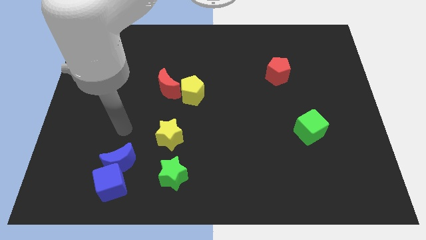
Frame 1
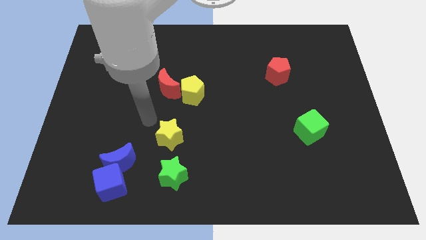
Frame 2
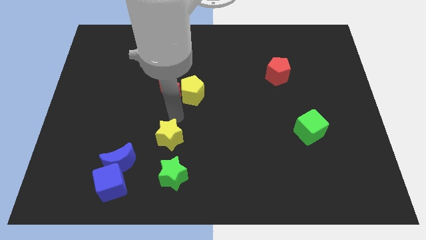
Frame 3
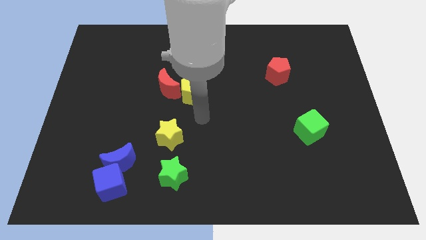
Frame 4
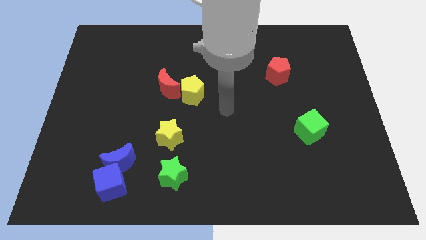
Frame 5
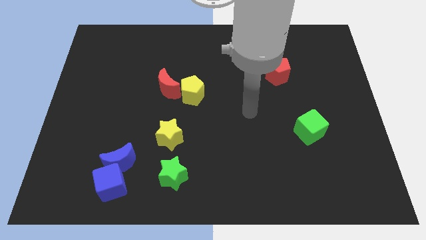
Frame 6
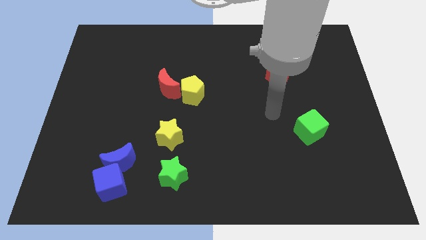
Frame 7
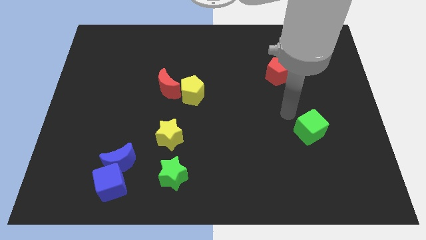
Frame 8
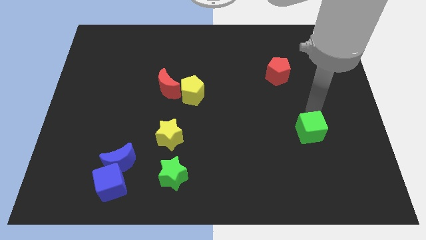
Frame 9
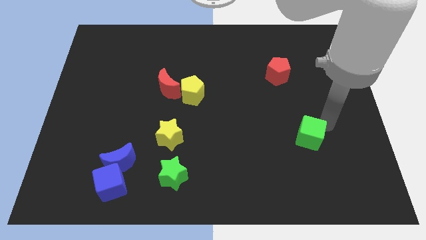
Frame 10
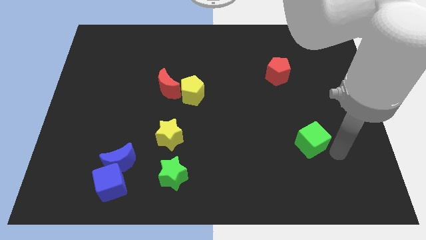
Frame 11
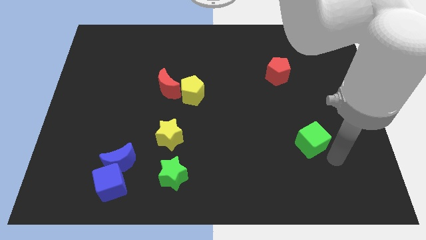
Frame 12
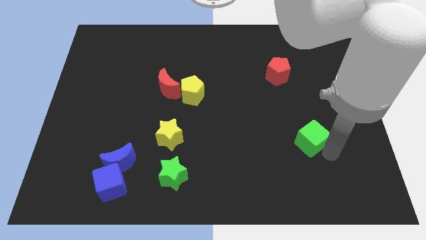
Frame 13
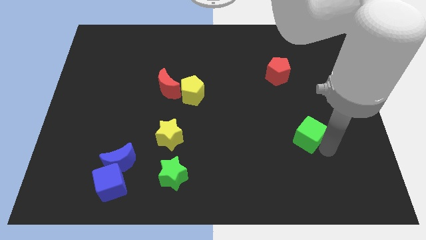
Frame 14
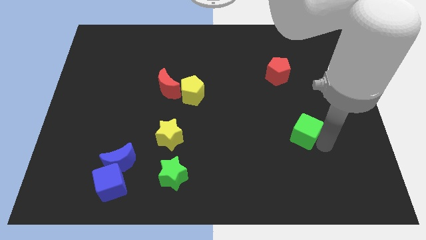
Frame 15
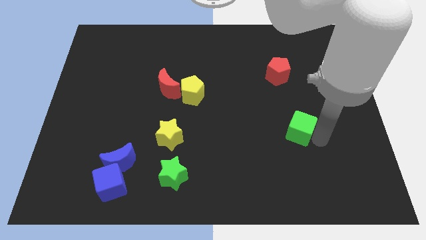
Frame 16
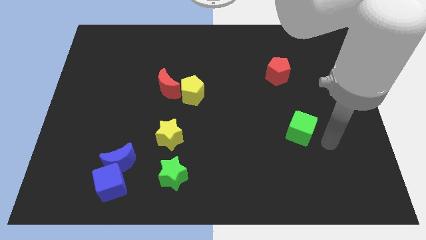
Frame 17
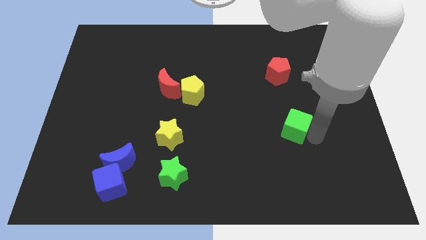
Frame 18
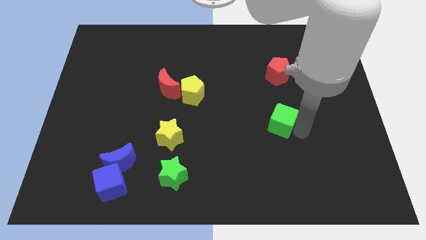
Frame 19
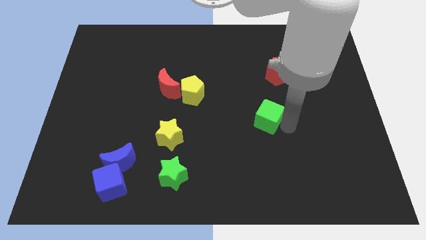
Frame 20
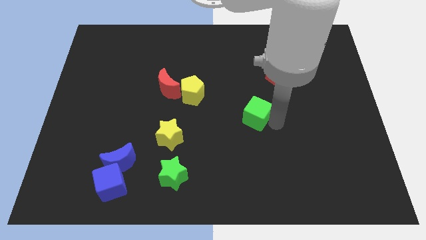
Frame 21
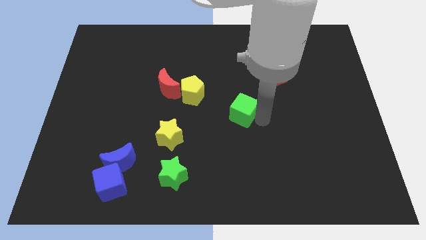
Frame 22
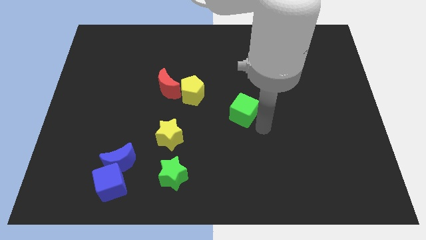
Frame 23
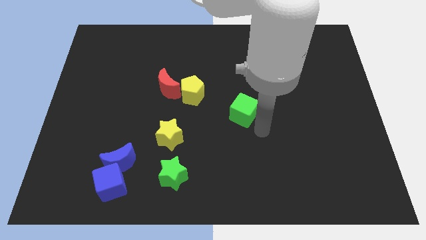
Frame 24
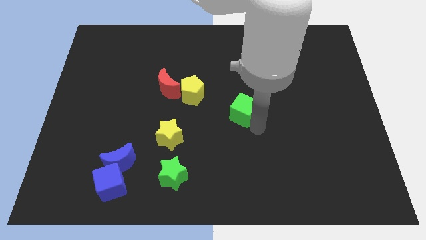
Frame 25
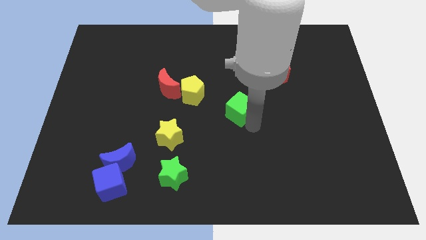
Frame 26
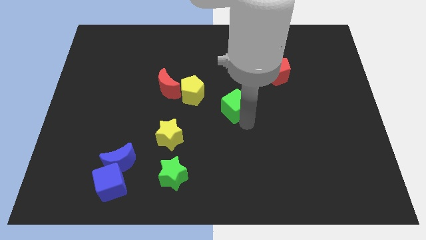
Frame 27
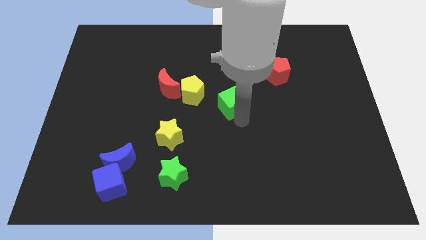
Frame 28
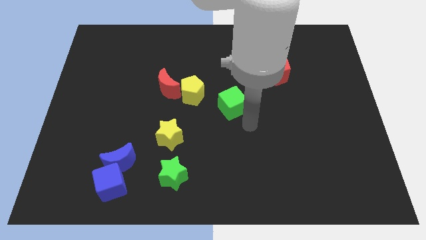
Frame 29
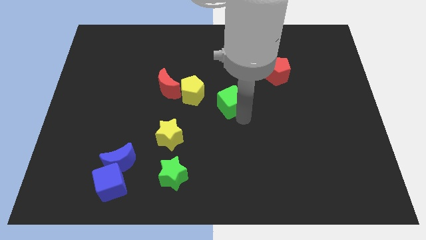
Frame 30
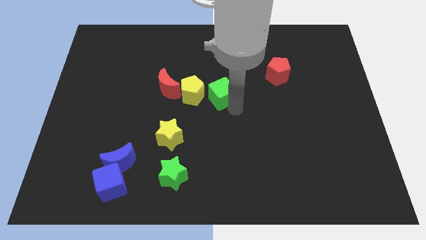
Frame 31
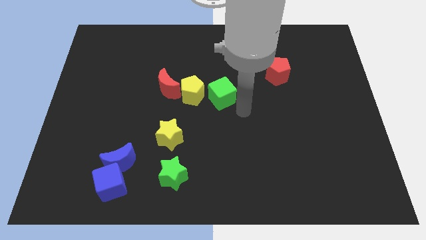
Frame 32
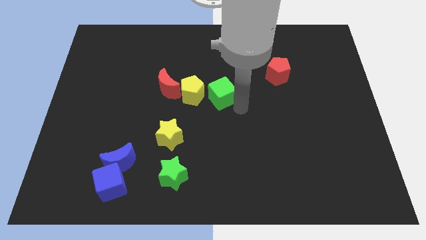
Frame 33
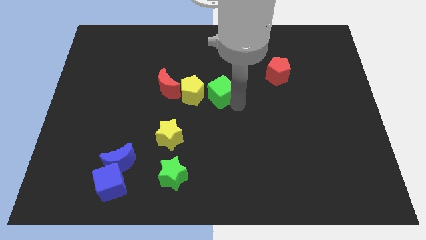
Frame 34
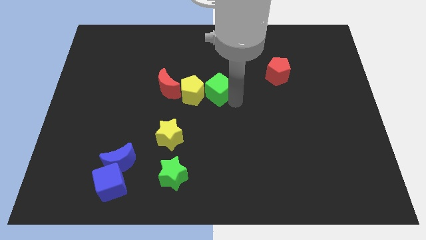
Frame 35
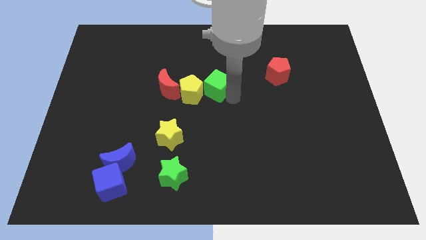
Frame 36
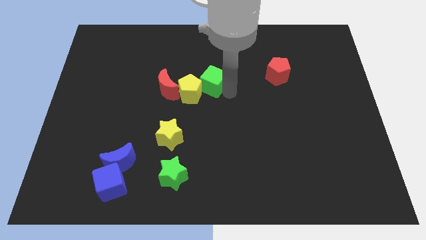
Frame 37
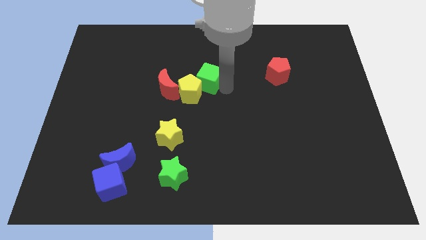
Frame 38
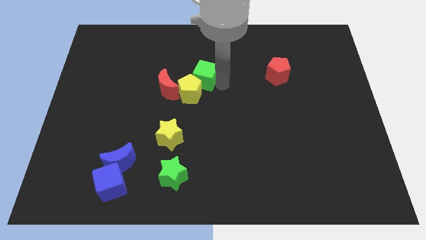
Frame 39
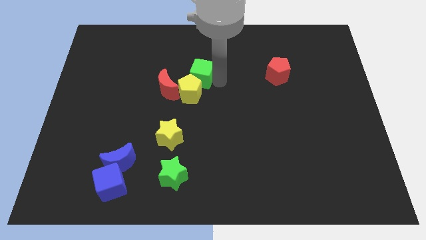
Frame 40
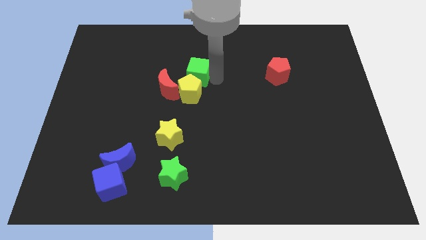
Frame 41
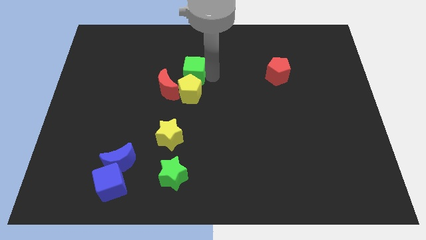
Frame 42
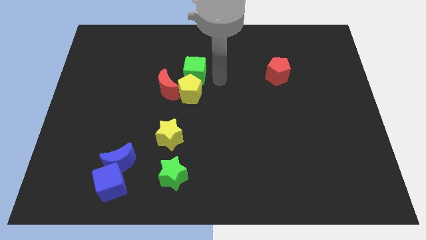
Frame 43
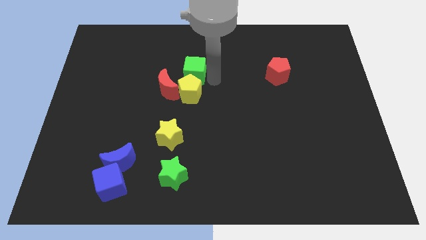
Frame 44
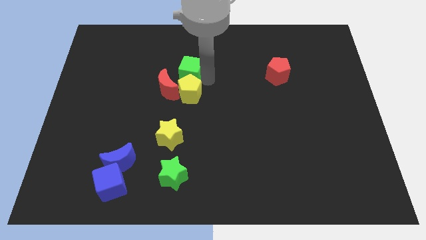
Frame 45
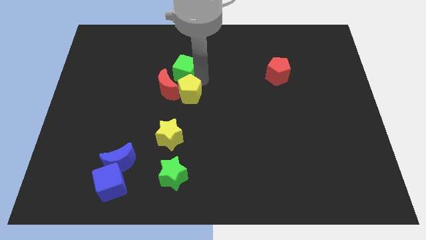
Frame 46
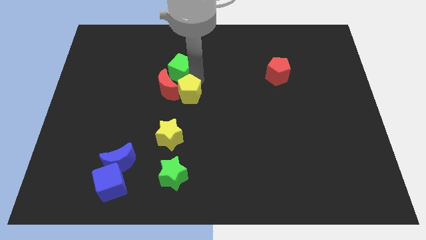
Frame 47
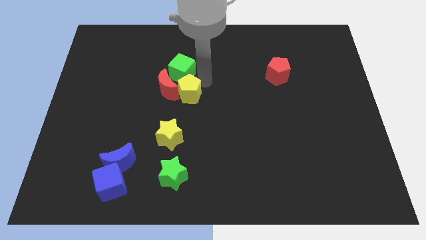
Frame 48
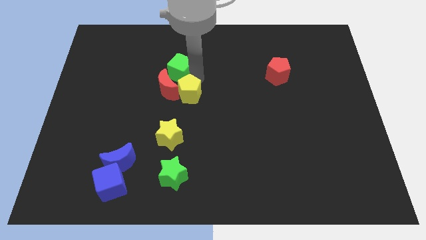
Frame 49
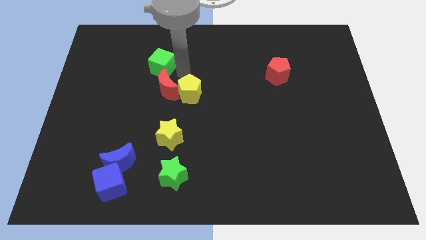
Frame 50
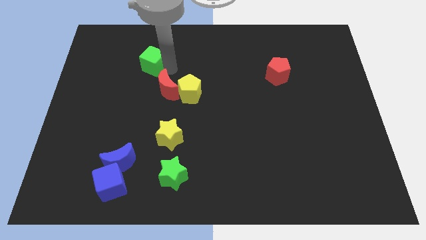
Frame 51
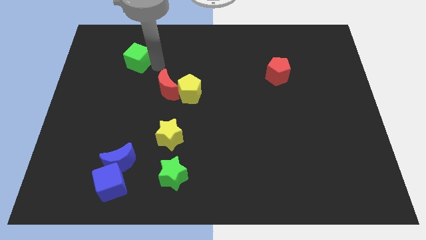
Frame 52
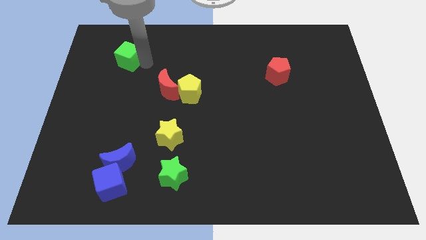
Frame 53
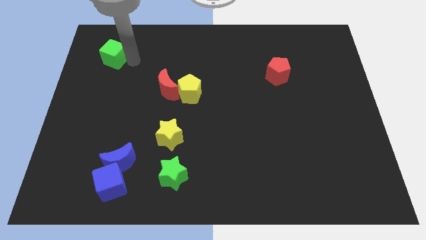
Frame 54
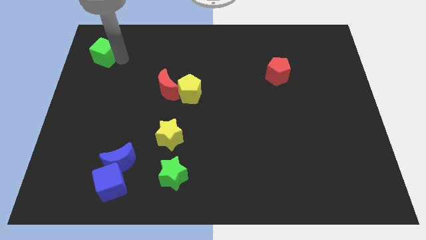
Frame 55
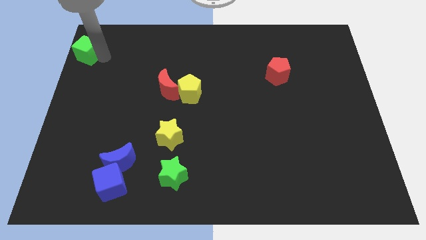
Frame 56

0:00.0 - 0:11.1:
push the green cube to the top left of the board
